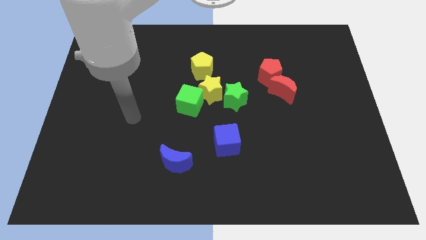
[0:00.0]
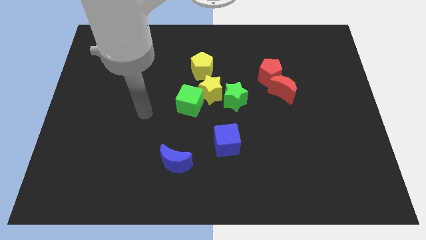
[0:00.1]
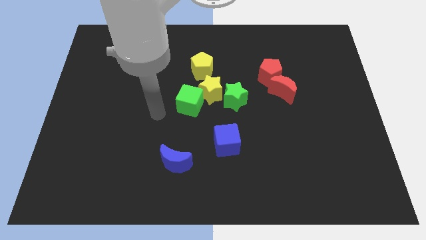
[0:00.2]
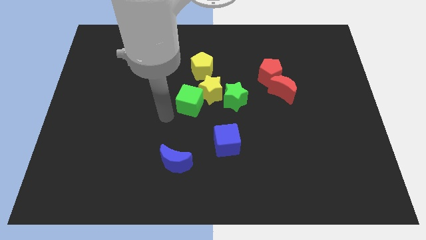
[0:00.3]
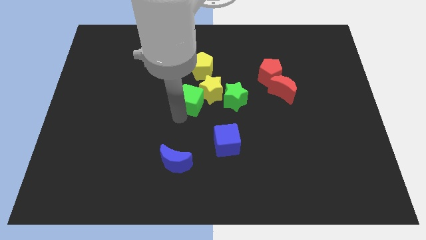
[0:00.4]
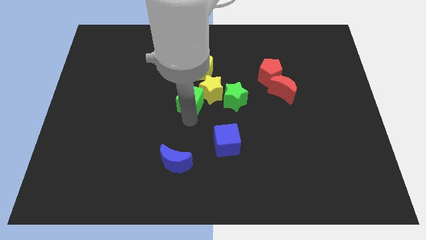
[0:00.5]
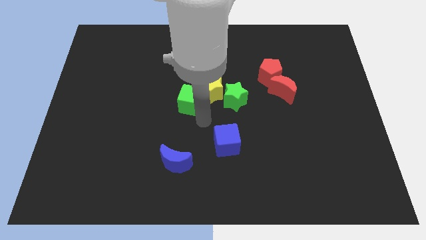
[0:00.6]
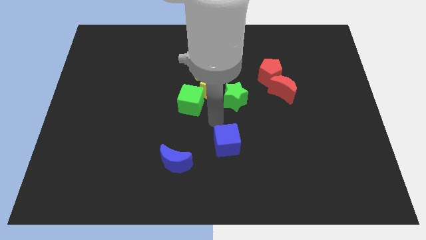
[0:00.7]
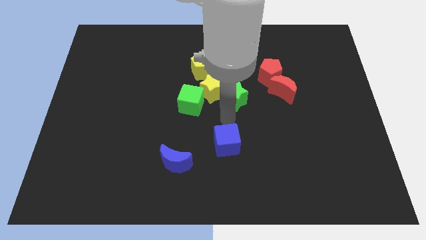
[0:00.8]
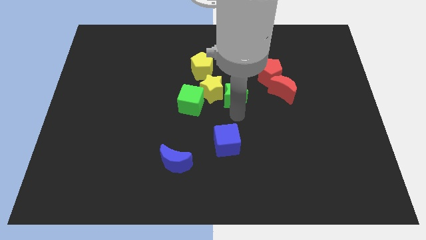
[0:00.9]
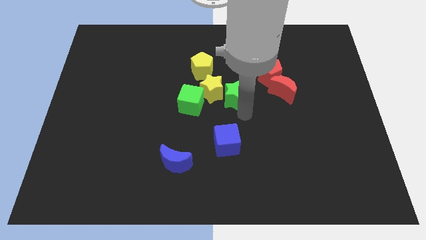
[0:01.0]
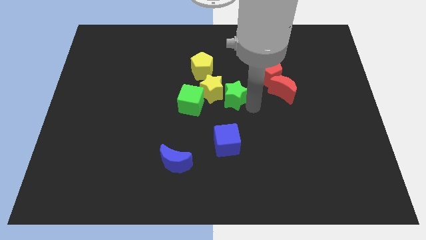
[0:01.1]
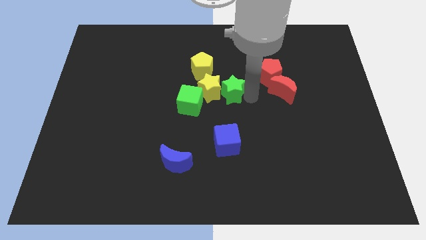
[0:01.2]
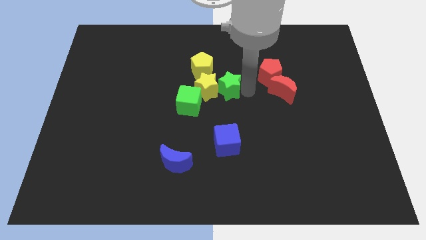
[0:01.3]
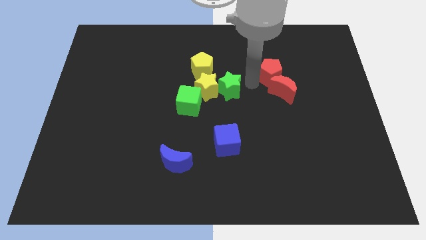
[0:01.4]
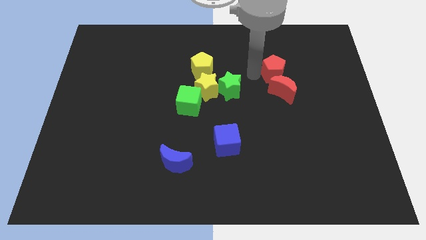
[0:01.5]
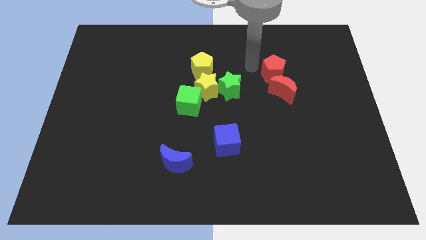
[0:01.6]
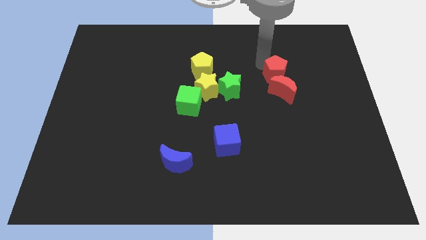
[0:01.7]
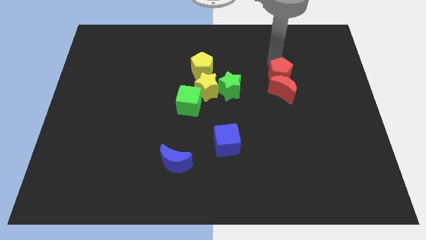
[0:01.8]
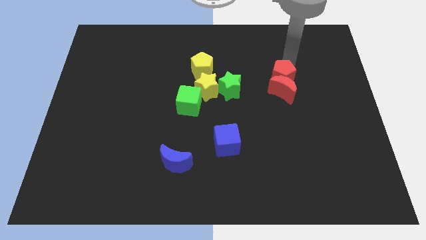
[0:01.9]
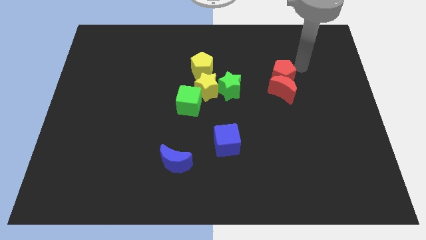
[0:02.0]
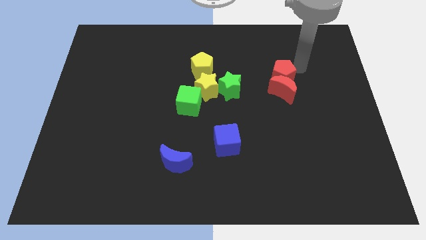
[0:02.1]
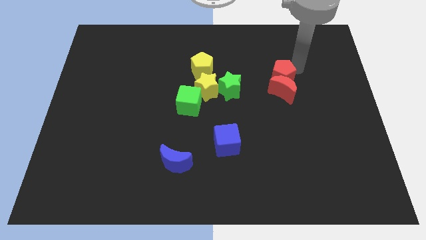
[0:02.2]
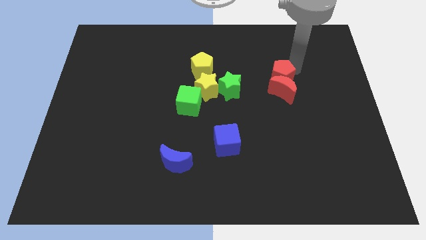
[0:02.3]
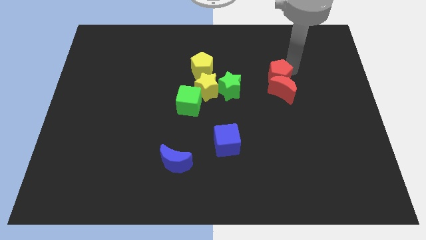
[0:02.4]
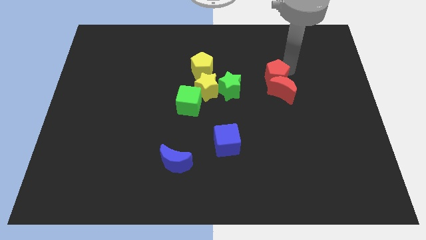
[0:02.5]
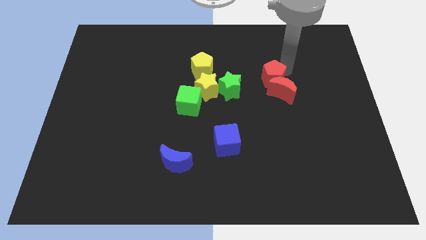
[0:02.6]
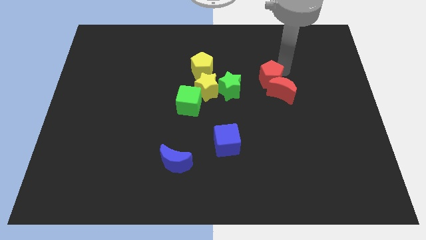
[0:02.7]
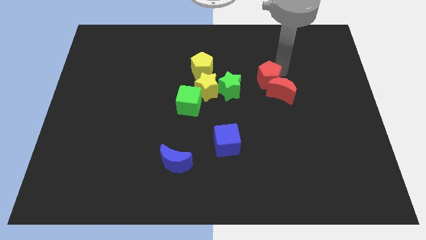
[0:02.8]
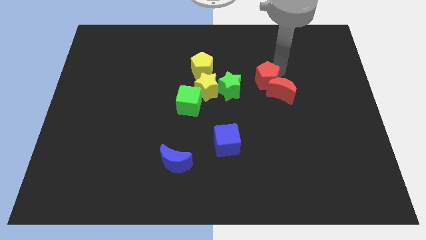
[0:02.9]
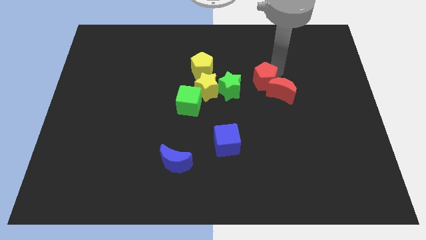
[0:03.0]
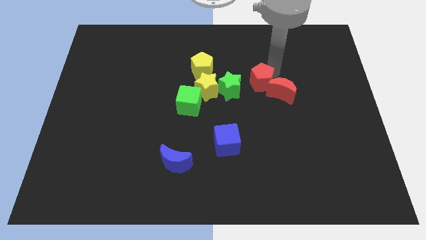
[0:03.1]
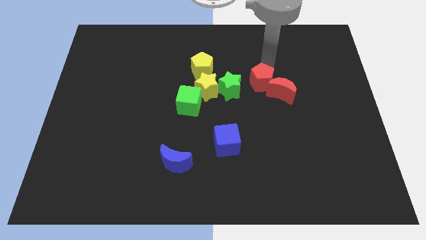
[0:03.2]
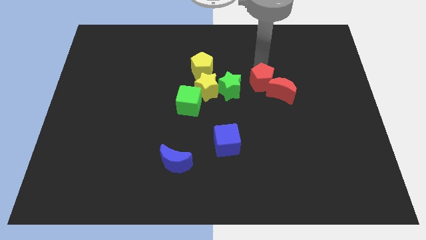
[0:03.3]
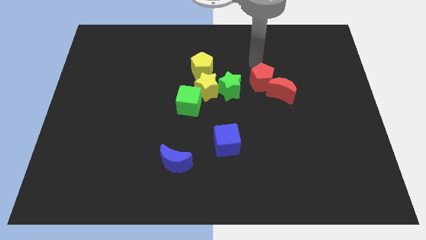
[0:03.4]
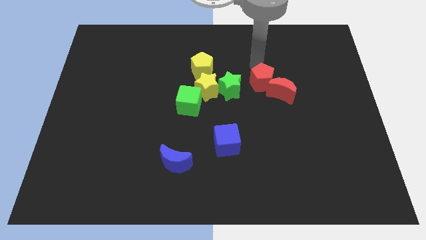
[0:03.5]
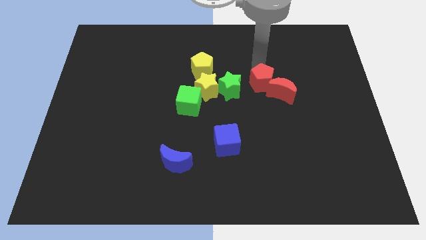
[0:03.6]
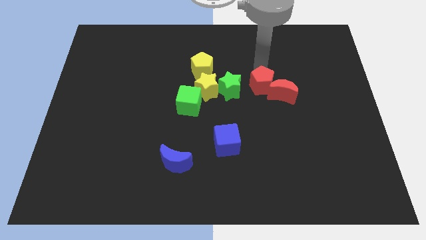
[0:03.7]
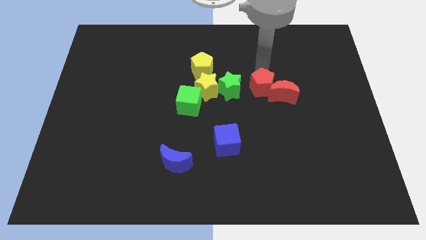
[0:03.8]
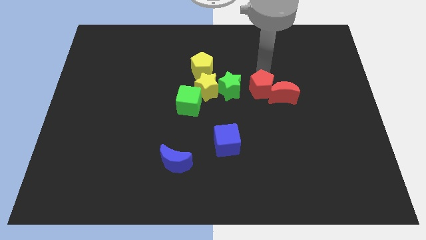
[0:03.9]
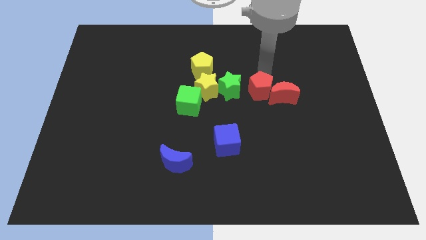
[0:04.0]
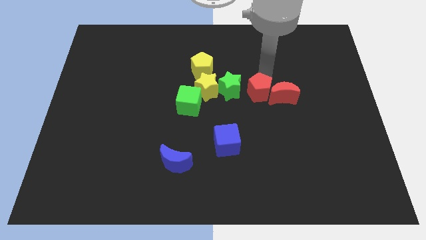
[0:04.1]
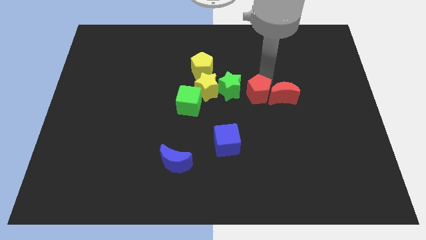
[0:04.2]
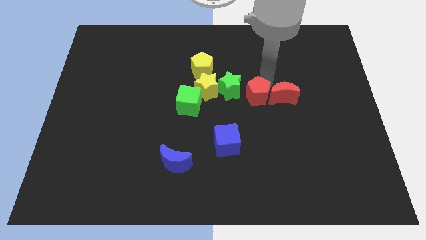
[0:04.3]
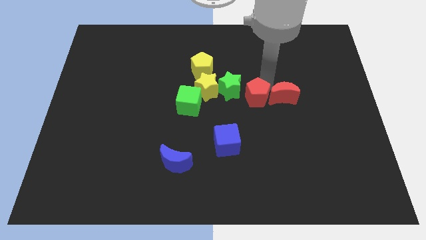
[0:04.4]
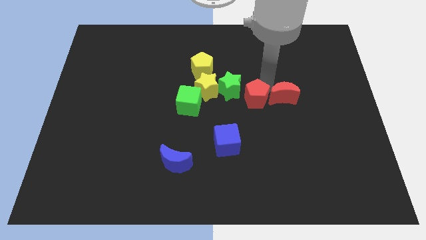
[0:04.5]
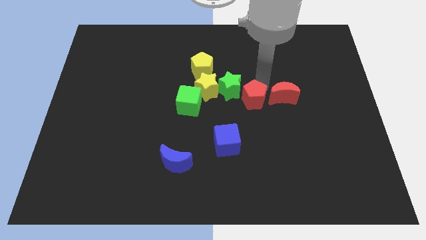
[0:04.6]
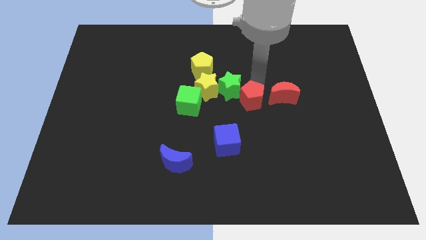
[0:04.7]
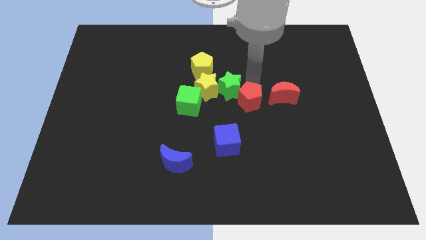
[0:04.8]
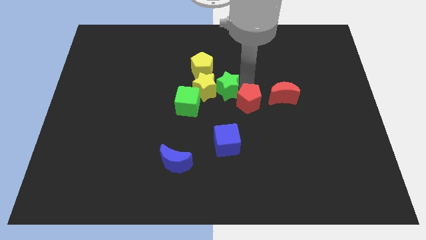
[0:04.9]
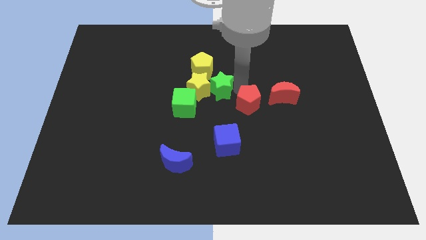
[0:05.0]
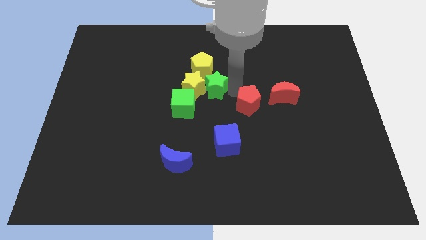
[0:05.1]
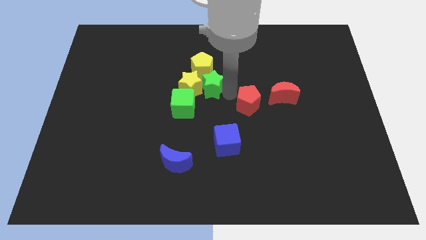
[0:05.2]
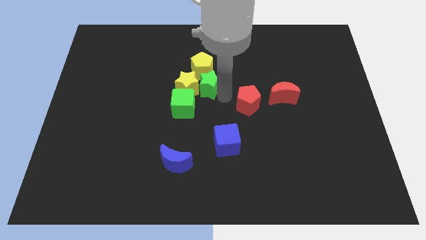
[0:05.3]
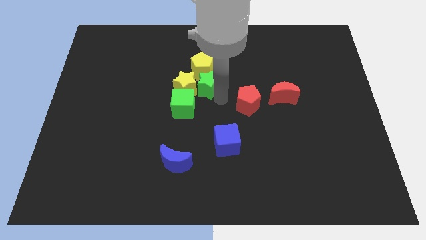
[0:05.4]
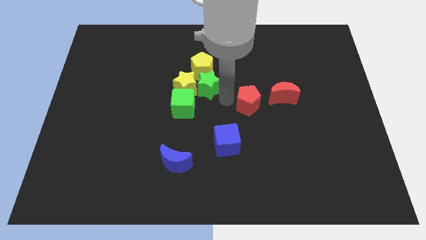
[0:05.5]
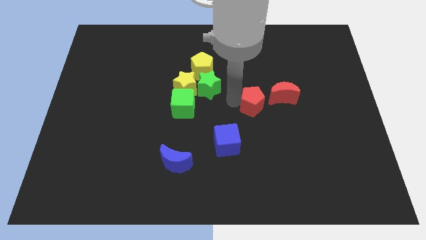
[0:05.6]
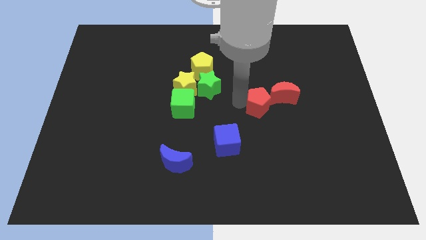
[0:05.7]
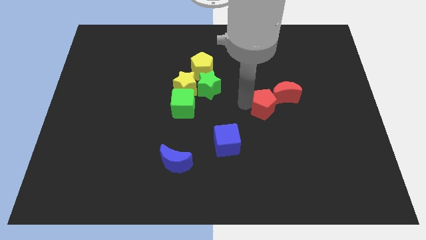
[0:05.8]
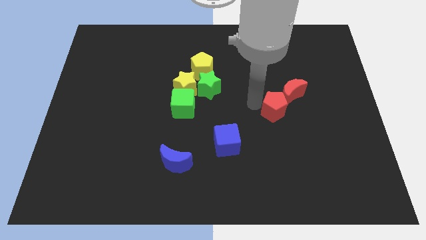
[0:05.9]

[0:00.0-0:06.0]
put the red pentagon to the bottom side of the red moon

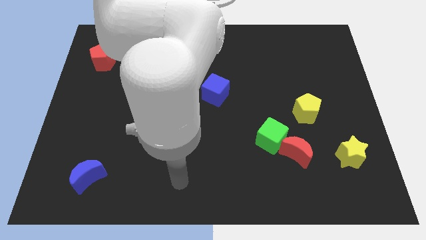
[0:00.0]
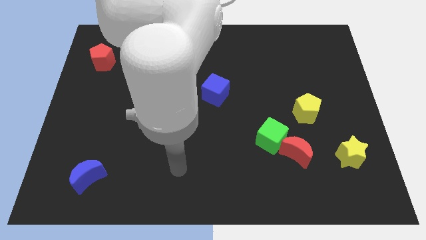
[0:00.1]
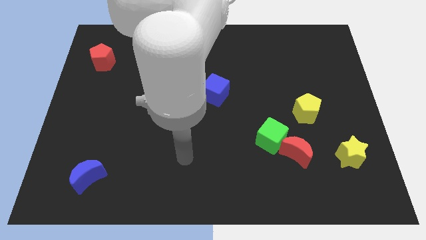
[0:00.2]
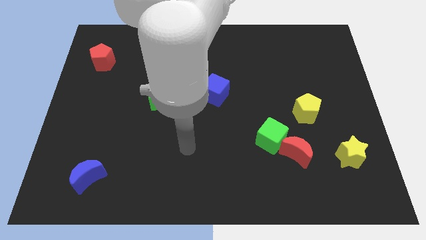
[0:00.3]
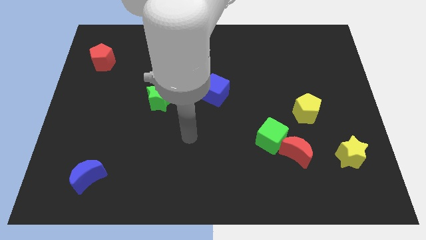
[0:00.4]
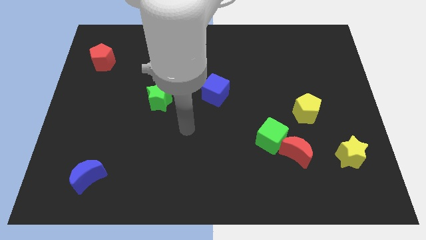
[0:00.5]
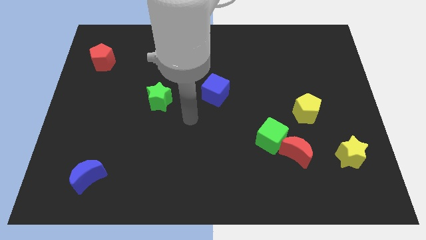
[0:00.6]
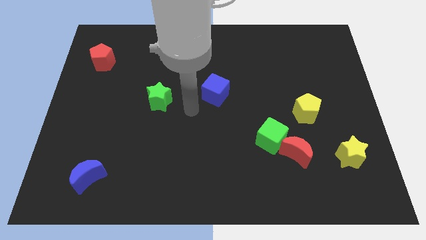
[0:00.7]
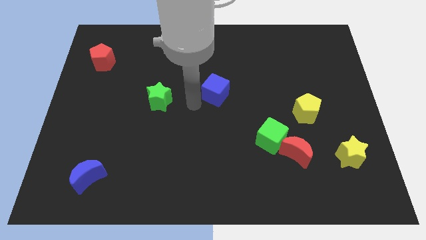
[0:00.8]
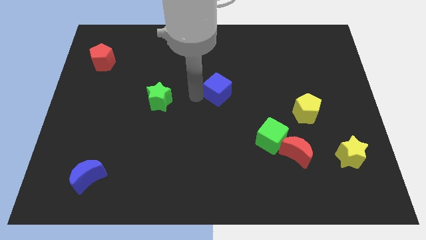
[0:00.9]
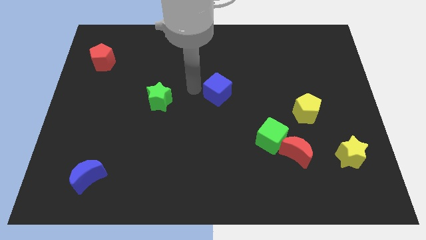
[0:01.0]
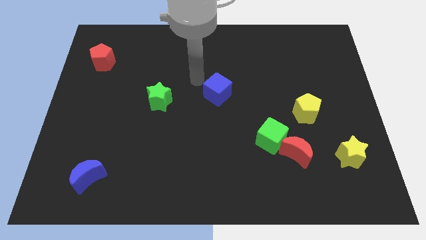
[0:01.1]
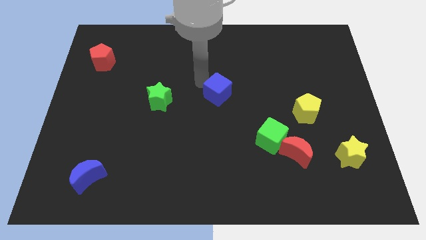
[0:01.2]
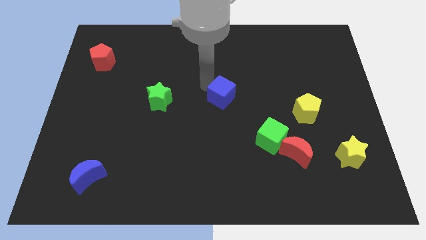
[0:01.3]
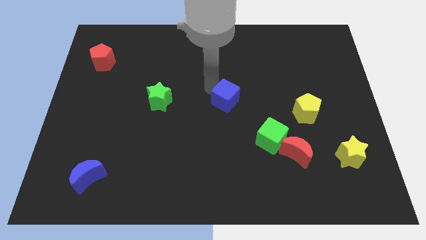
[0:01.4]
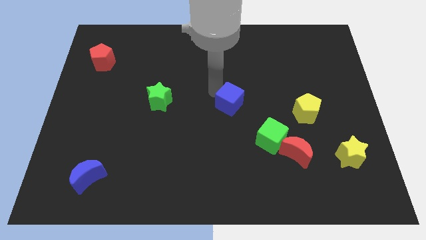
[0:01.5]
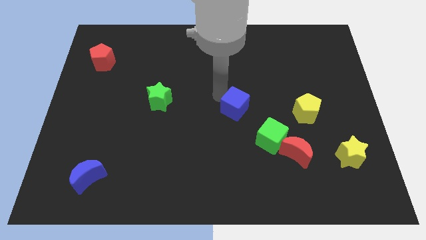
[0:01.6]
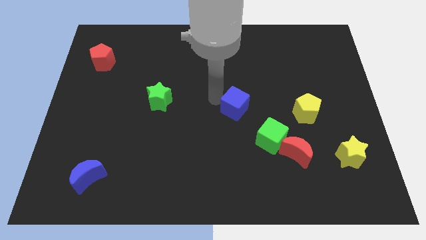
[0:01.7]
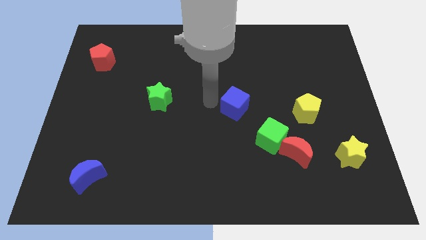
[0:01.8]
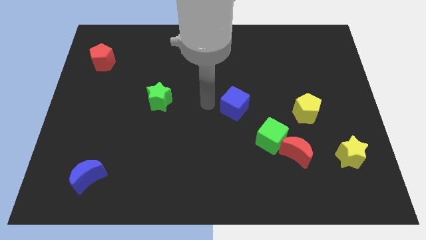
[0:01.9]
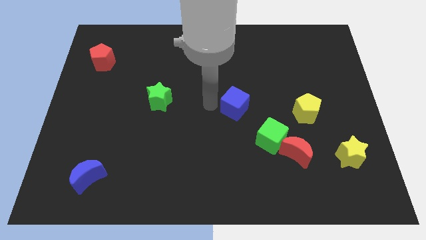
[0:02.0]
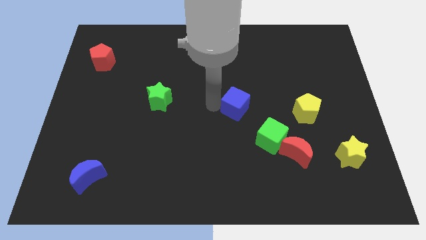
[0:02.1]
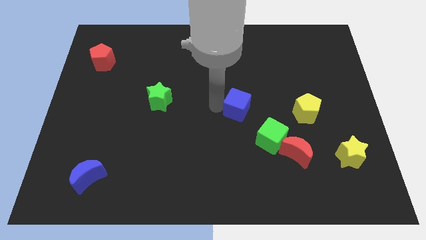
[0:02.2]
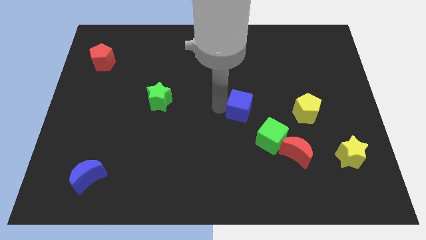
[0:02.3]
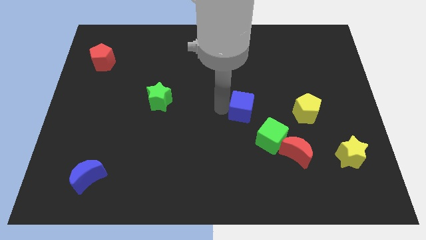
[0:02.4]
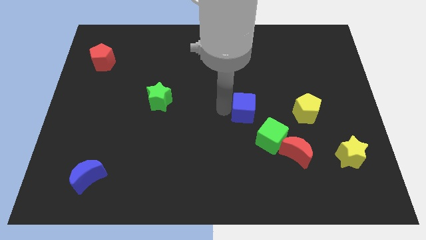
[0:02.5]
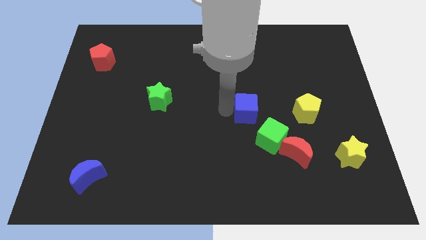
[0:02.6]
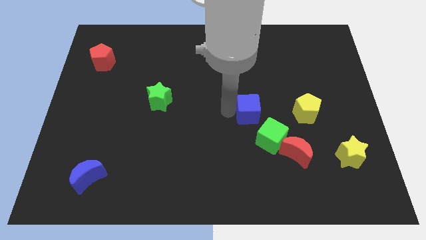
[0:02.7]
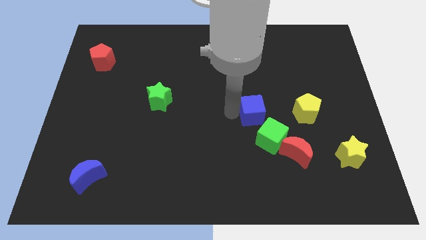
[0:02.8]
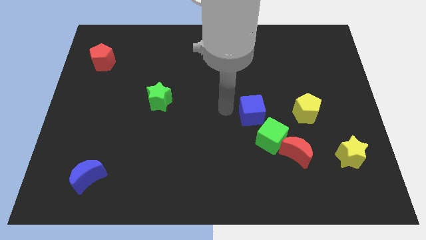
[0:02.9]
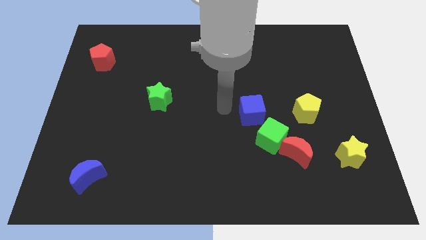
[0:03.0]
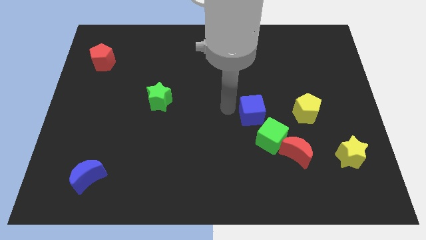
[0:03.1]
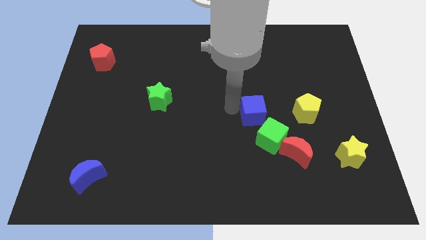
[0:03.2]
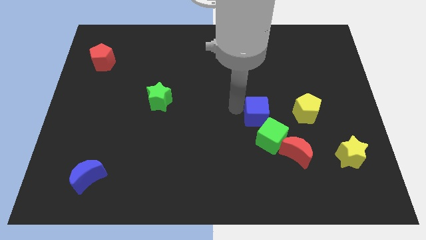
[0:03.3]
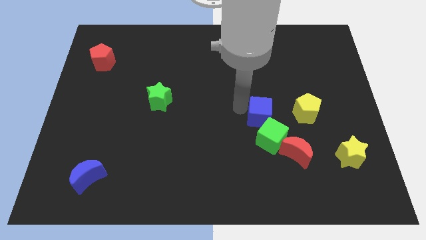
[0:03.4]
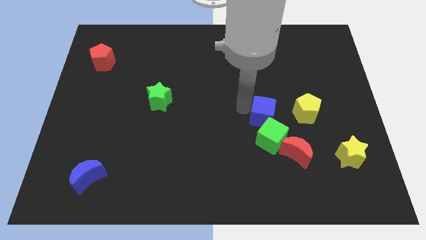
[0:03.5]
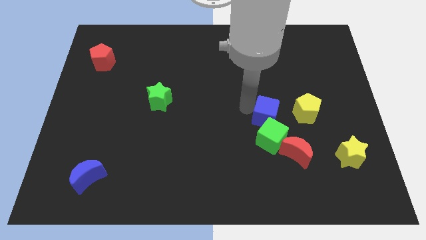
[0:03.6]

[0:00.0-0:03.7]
move the blue cube to the top right of the green cube
